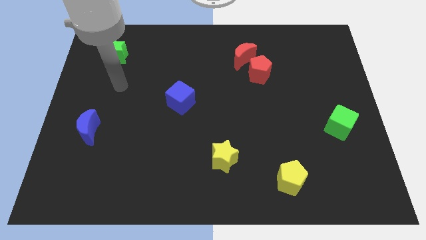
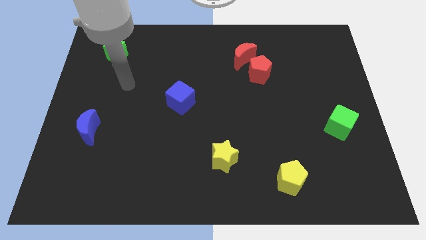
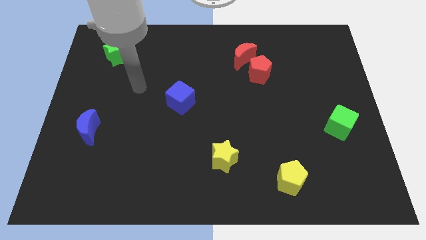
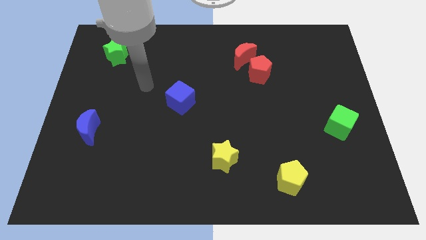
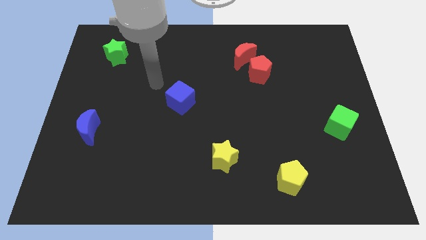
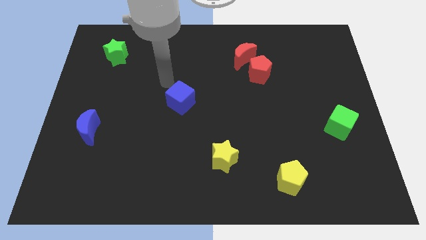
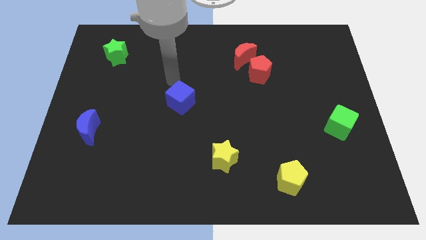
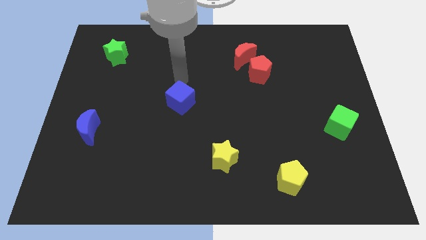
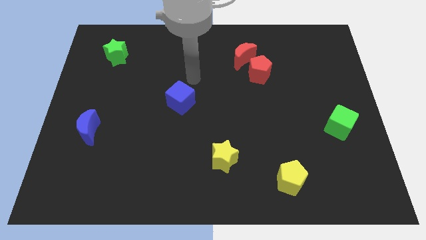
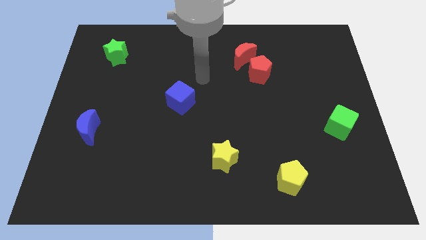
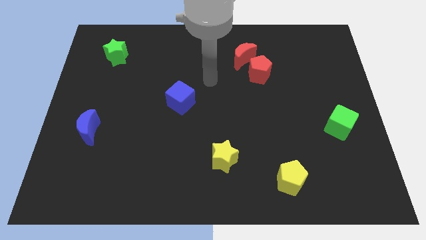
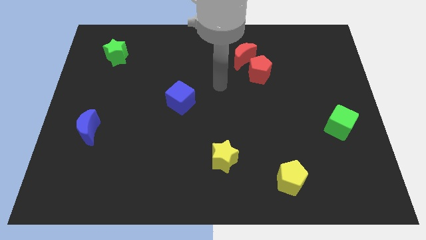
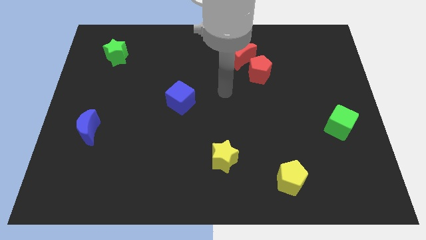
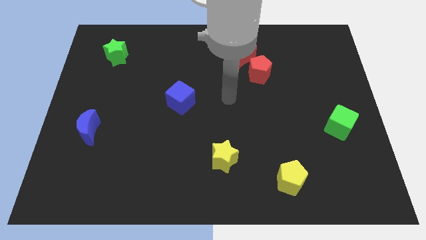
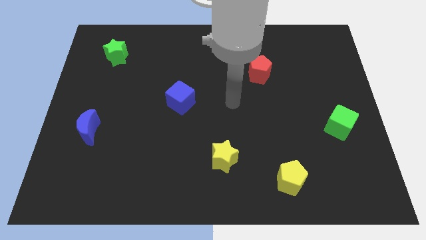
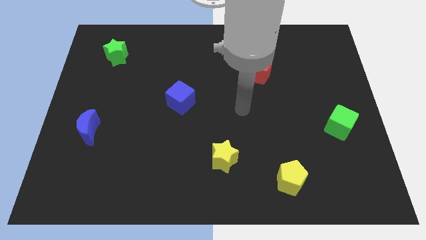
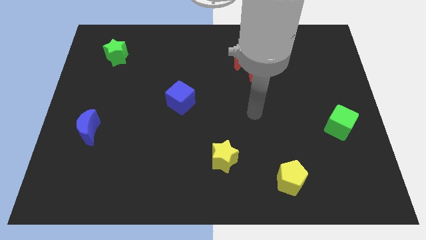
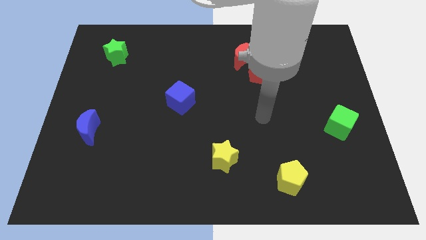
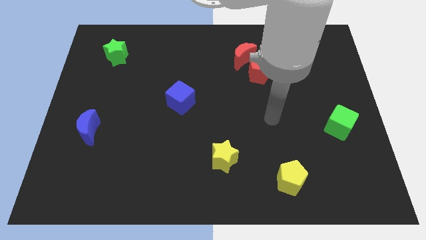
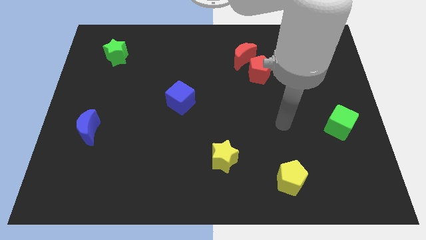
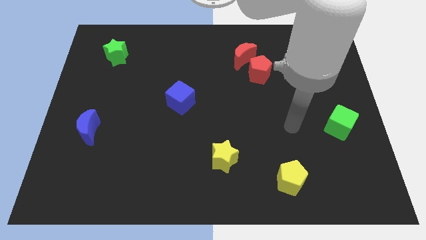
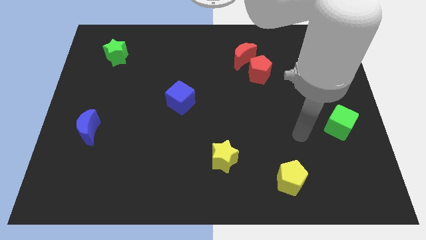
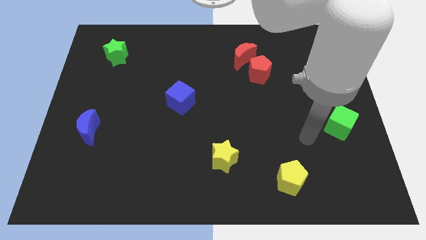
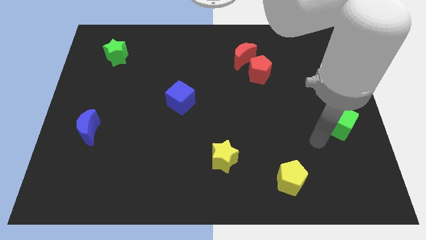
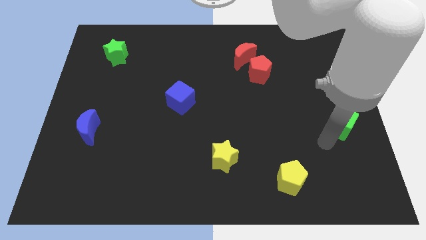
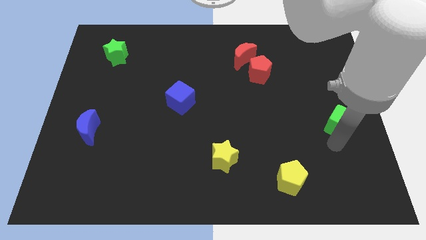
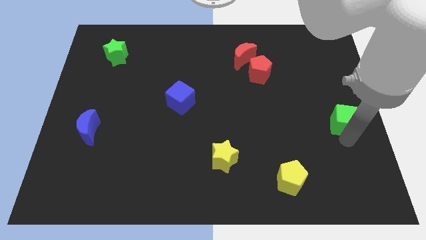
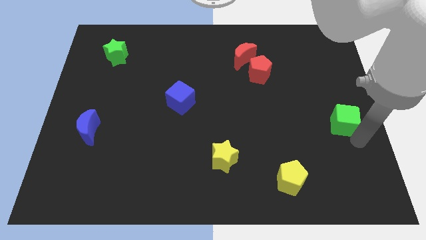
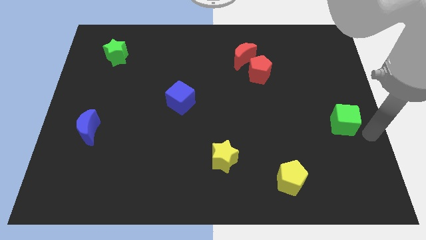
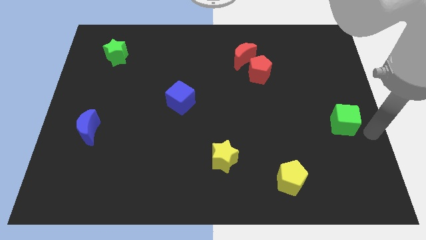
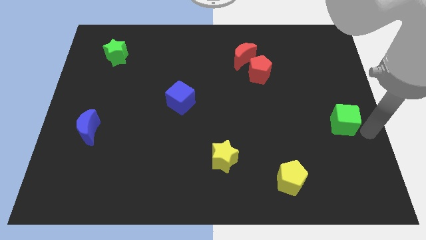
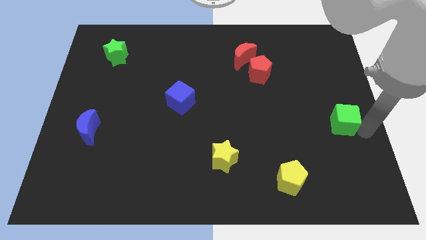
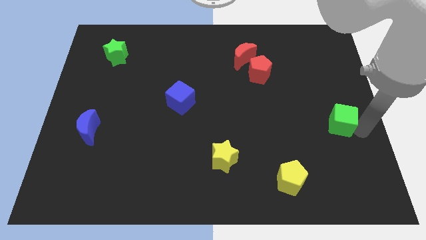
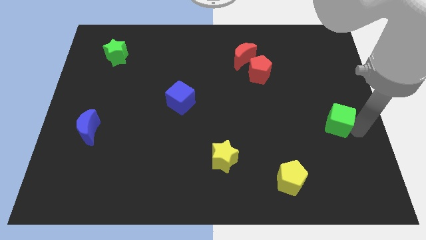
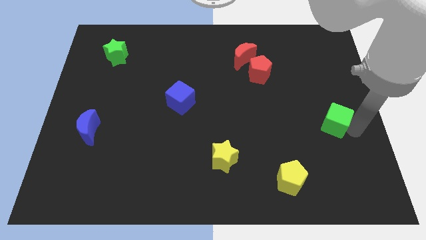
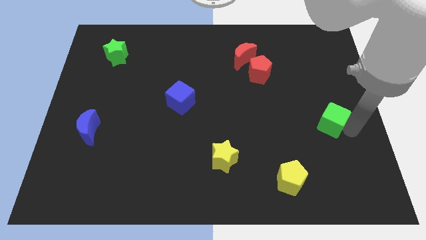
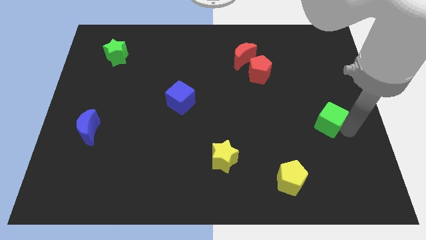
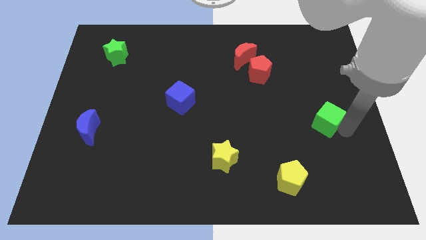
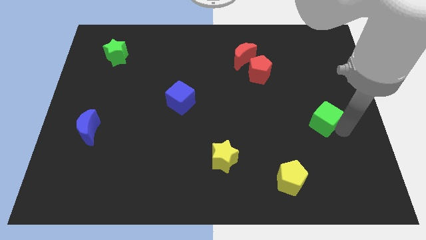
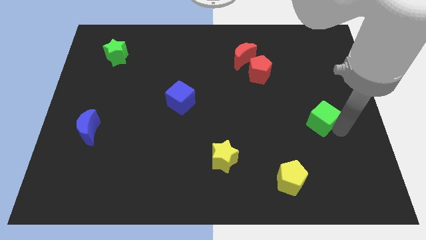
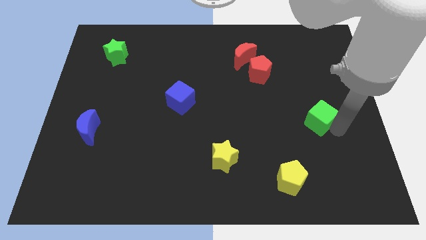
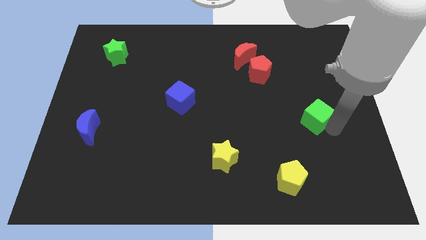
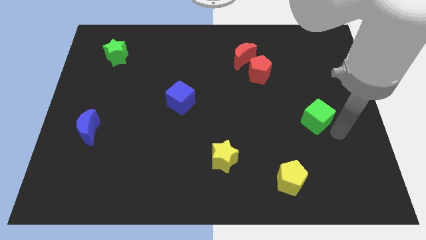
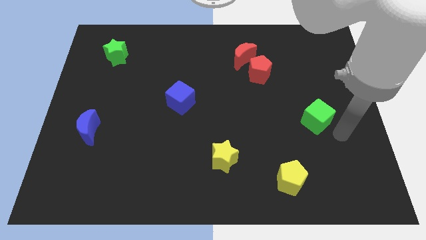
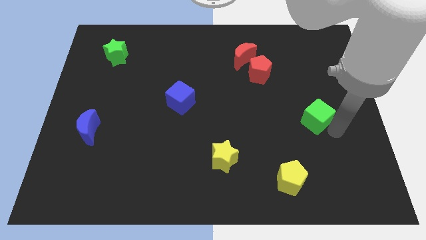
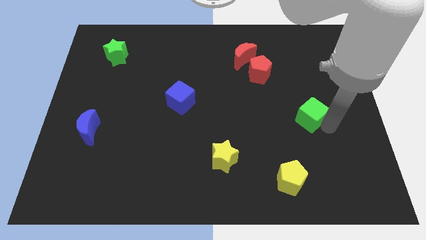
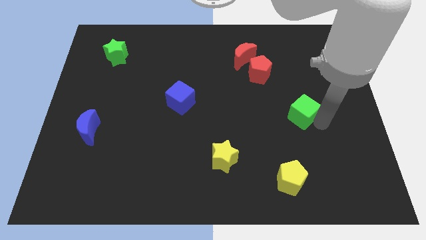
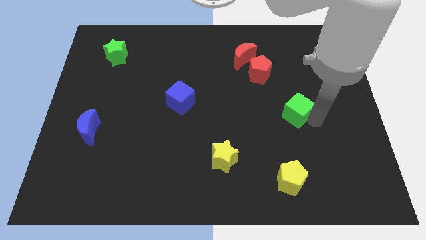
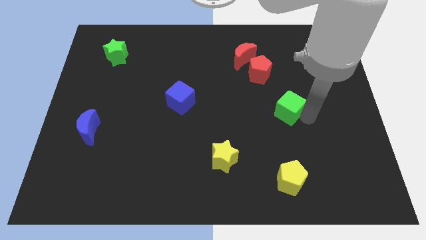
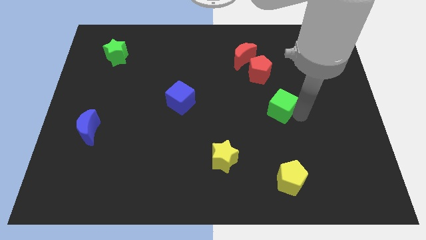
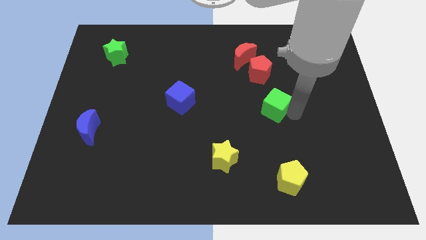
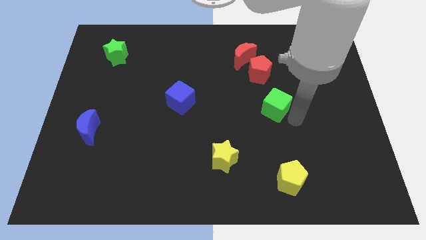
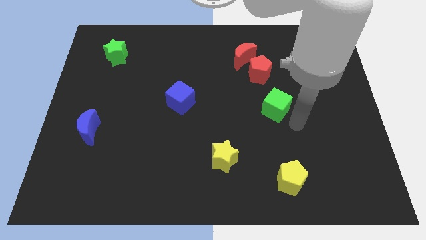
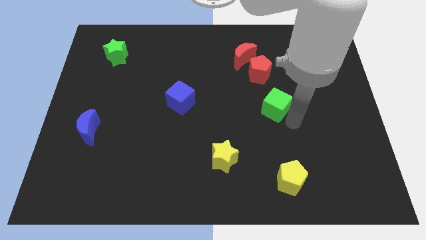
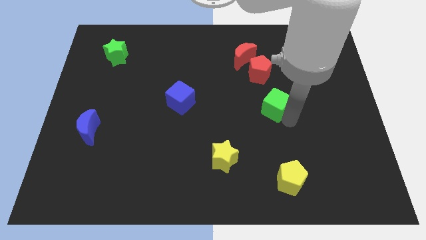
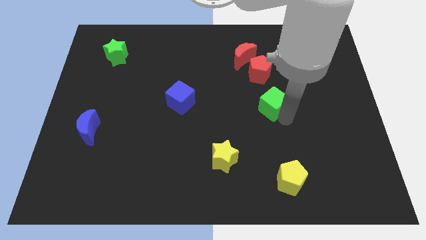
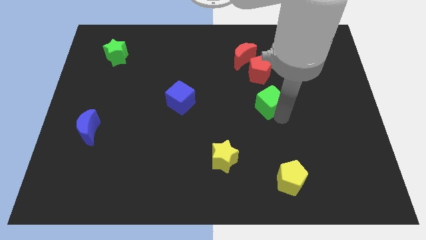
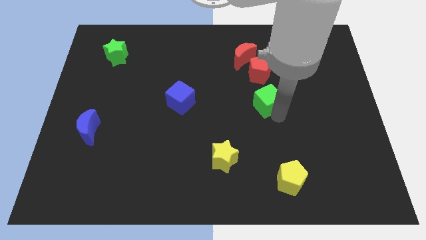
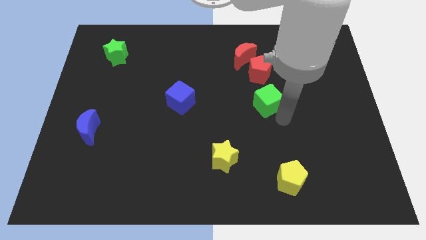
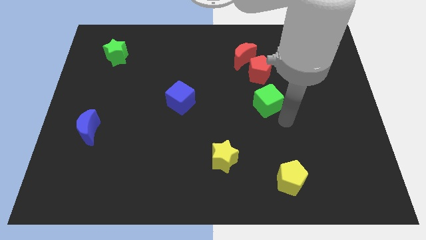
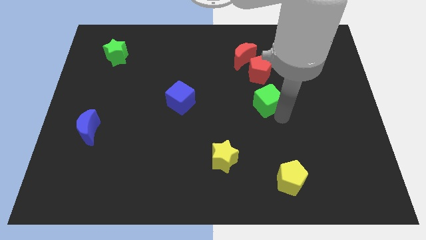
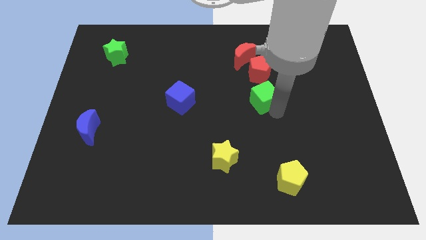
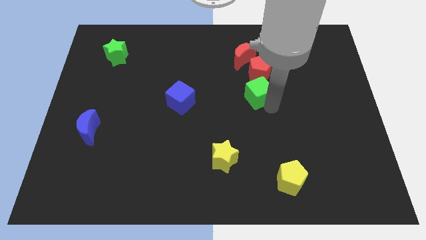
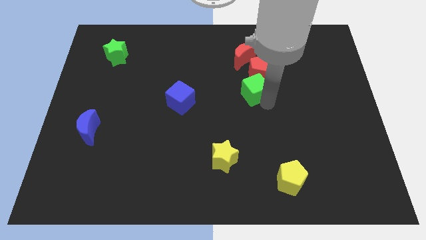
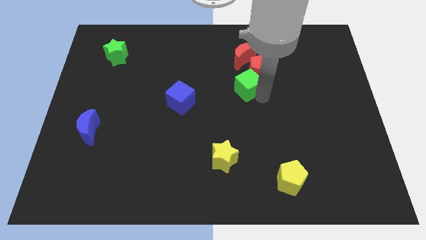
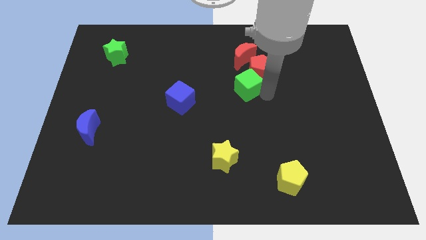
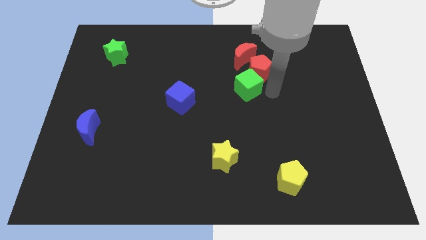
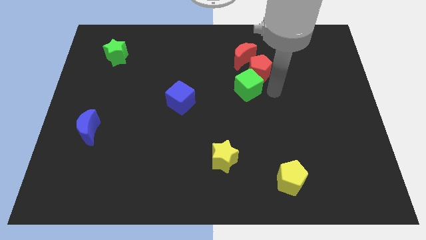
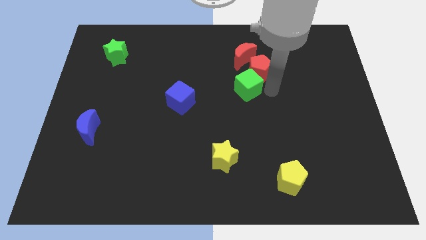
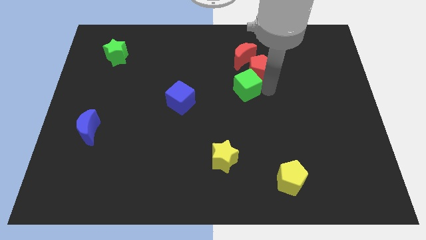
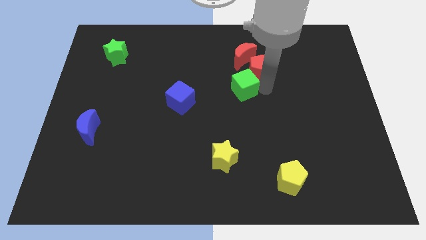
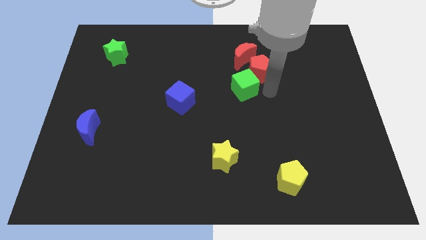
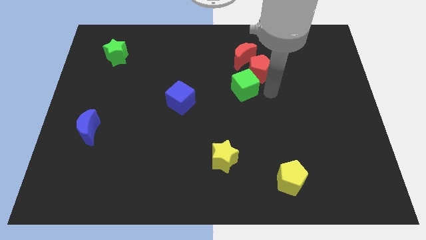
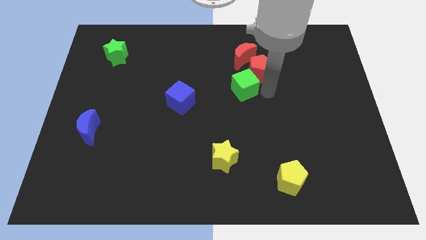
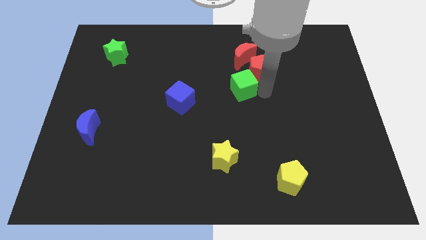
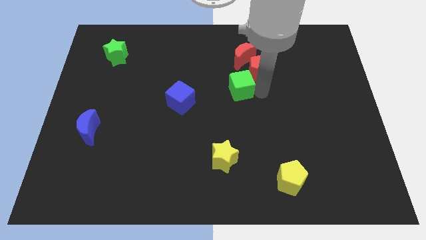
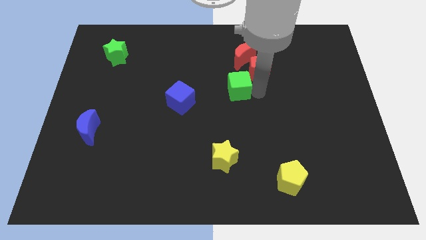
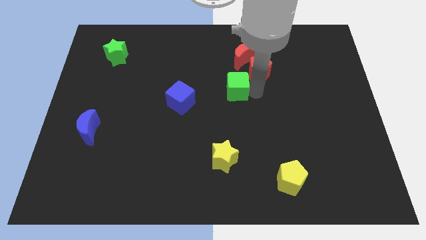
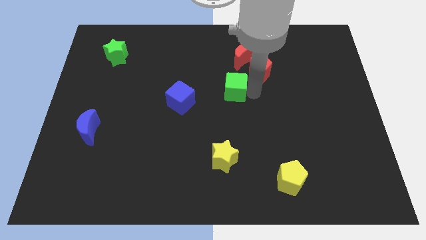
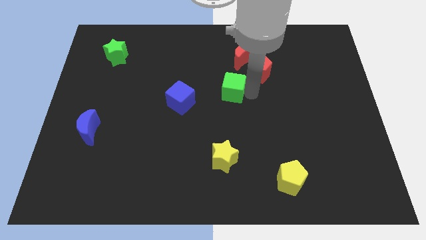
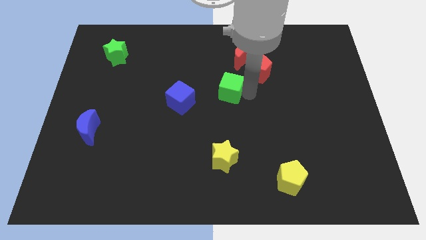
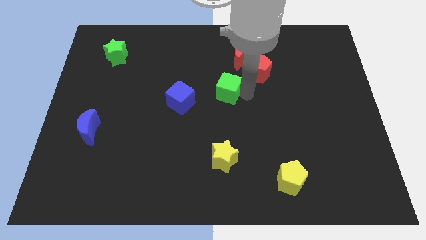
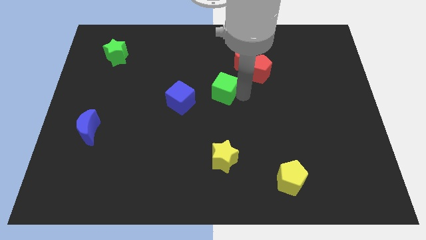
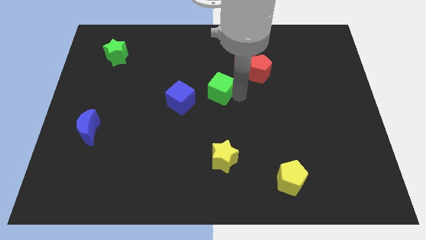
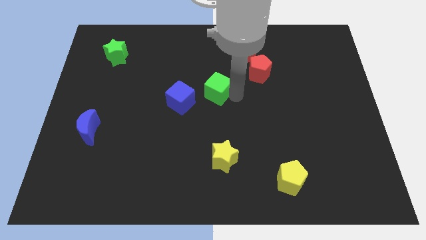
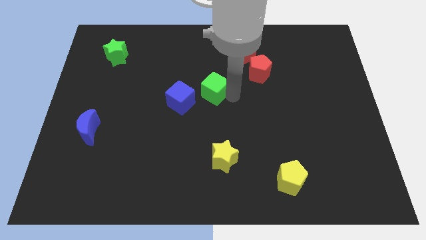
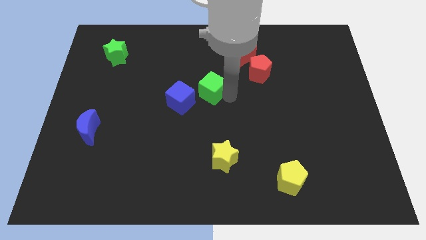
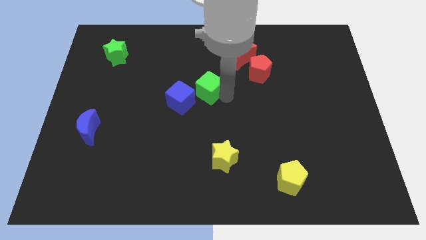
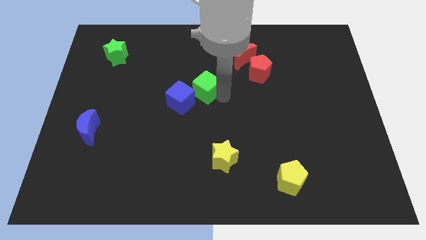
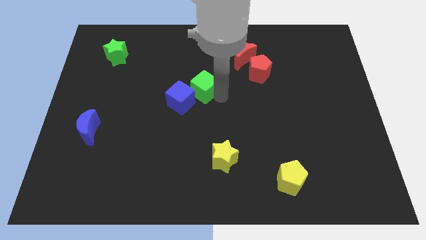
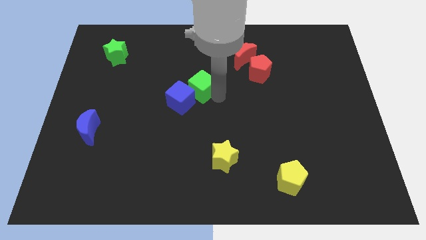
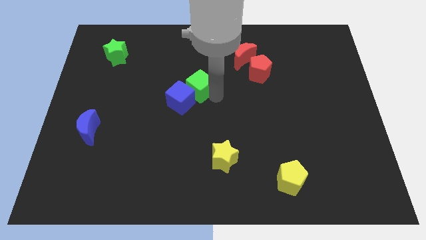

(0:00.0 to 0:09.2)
move the green cube to the top of the blue cube
